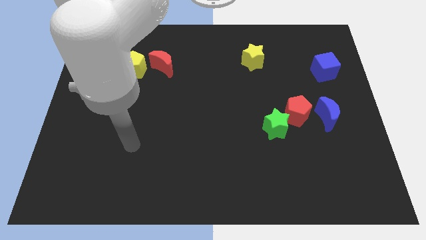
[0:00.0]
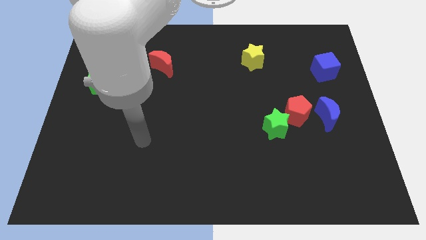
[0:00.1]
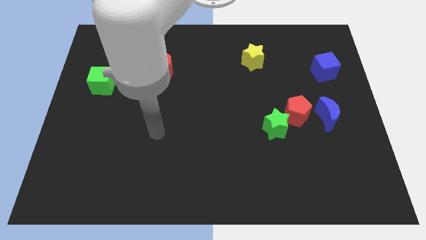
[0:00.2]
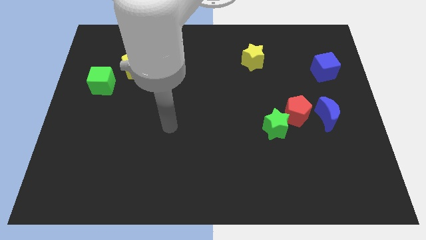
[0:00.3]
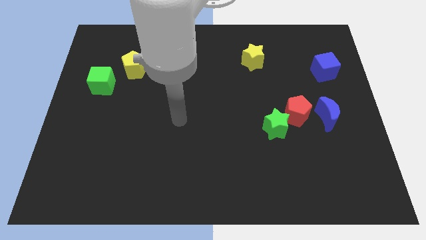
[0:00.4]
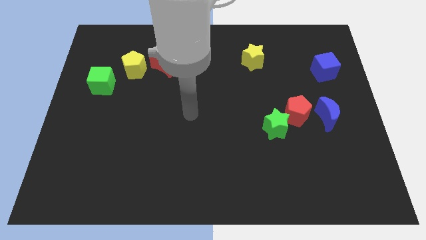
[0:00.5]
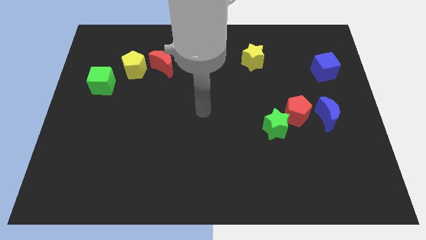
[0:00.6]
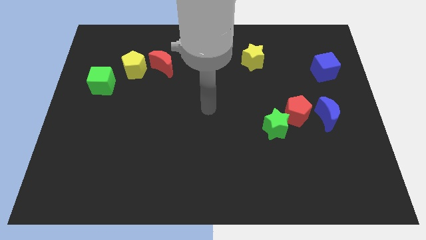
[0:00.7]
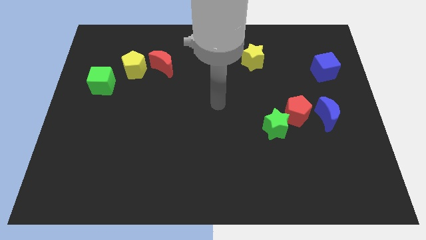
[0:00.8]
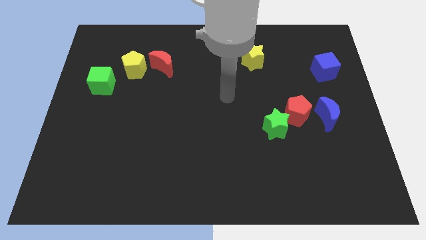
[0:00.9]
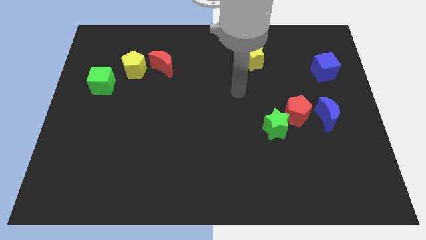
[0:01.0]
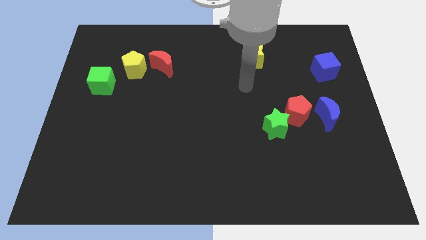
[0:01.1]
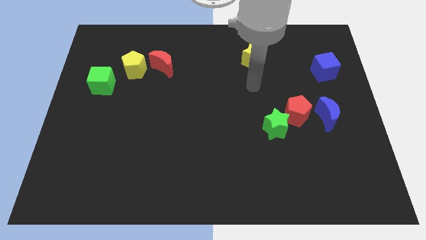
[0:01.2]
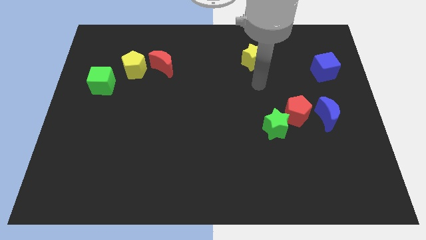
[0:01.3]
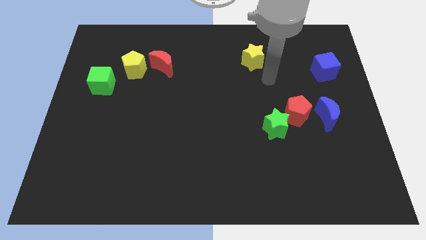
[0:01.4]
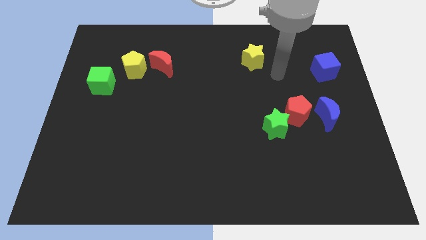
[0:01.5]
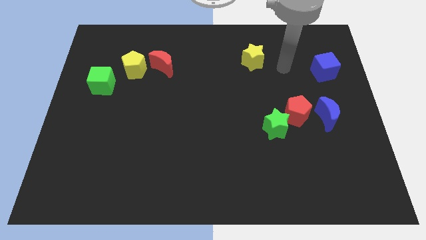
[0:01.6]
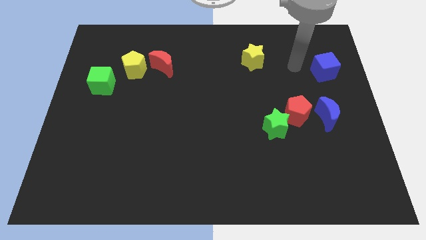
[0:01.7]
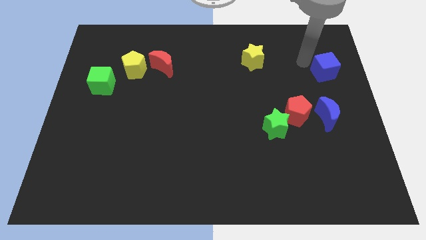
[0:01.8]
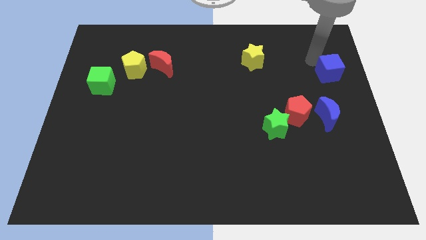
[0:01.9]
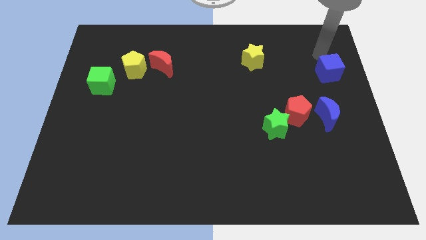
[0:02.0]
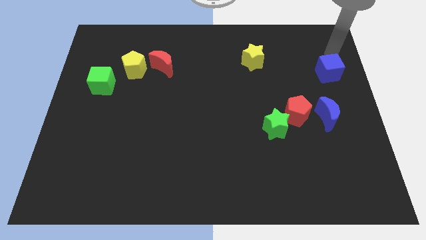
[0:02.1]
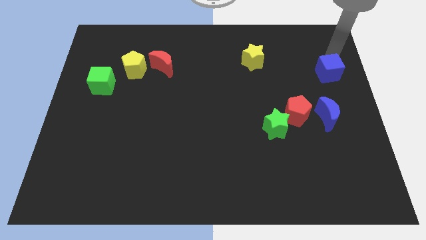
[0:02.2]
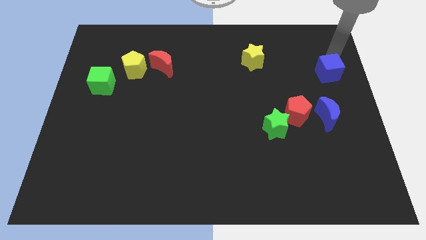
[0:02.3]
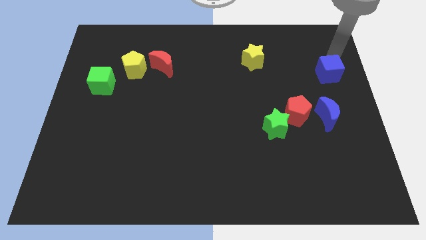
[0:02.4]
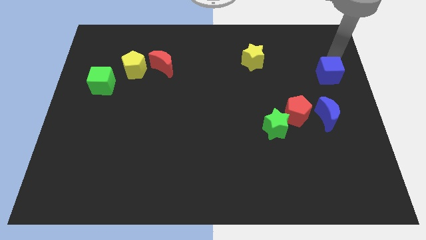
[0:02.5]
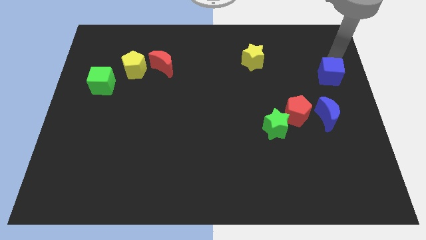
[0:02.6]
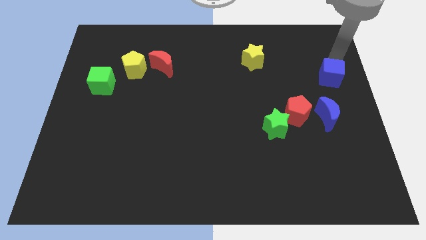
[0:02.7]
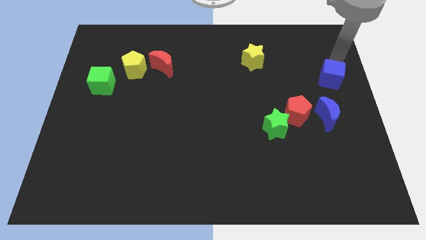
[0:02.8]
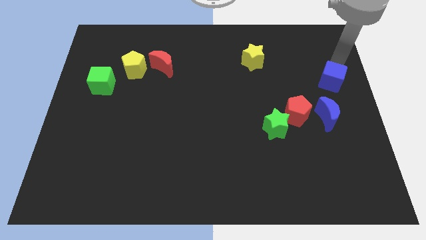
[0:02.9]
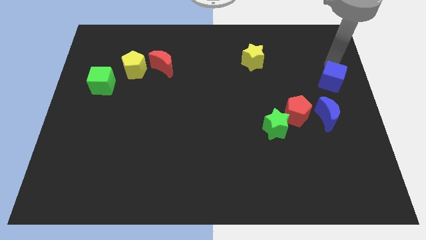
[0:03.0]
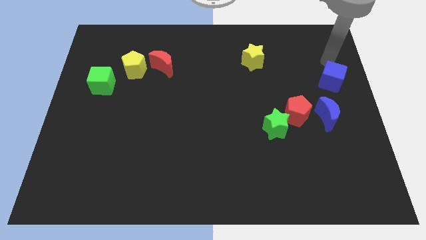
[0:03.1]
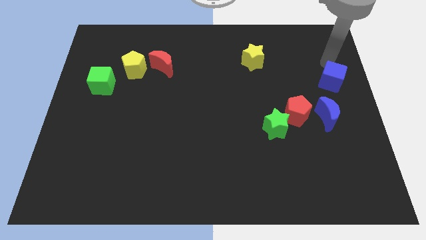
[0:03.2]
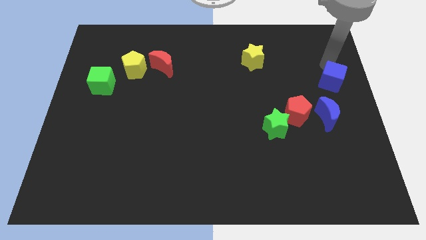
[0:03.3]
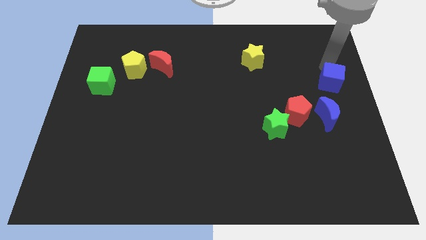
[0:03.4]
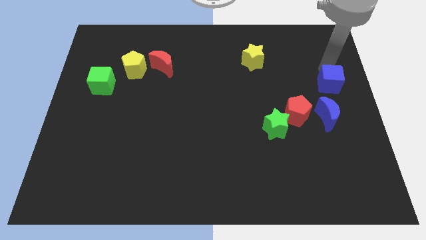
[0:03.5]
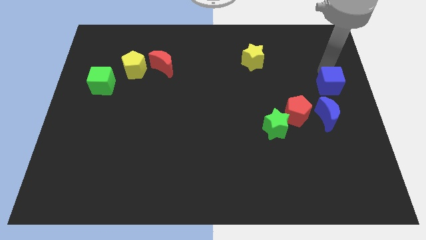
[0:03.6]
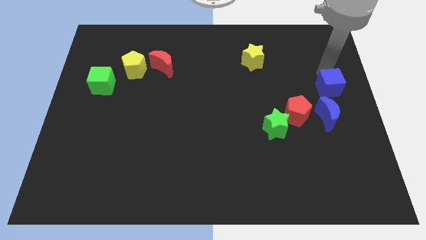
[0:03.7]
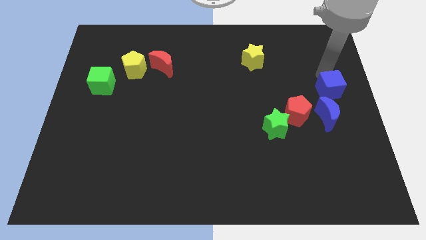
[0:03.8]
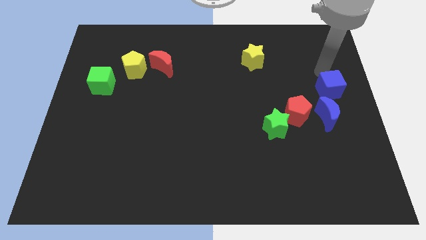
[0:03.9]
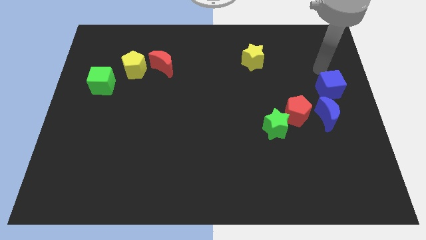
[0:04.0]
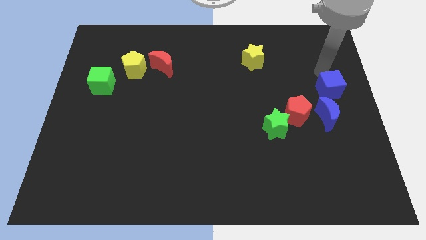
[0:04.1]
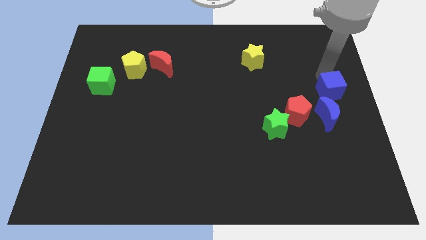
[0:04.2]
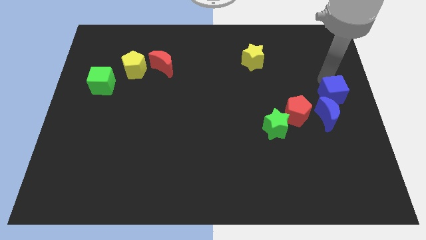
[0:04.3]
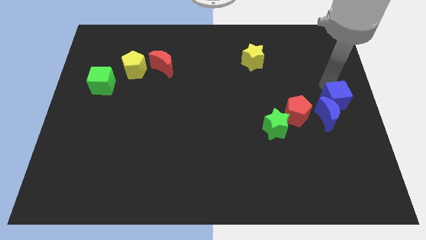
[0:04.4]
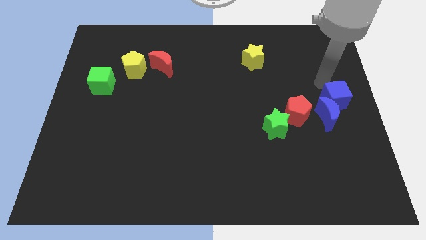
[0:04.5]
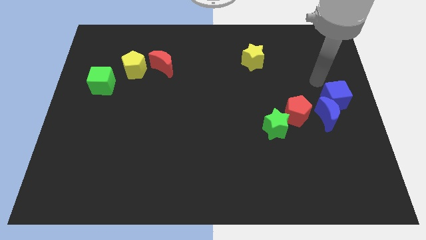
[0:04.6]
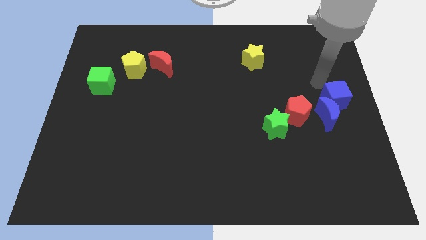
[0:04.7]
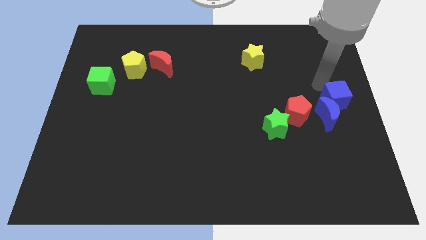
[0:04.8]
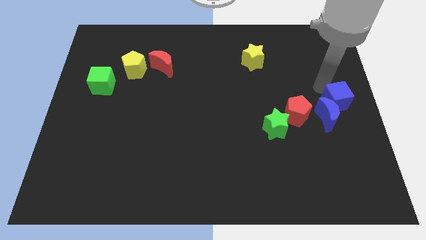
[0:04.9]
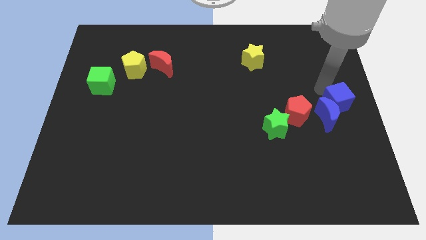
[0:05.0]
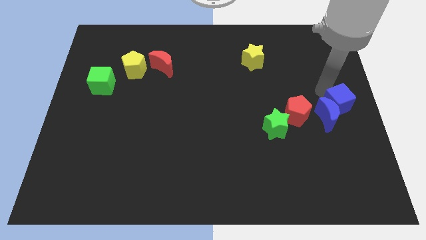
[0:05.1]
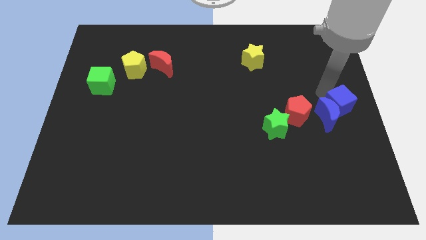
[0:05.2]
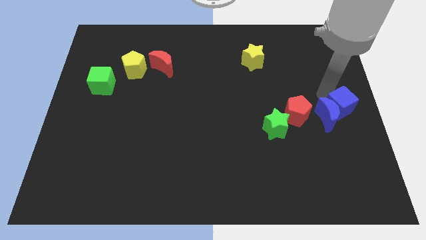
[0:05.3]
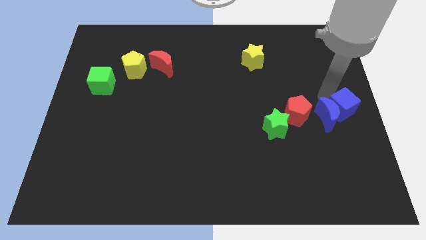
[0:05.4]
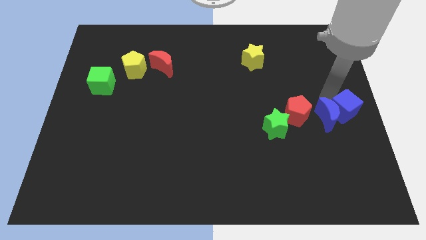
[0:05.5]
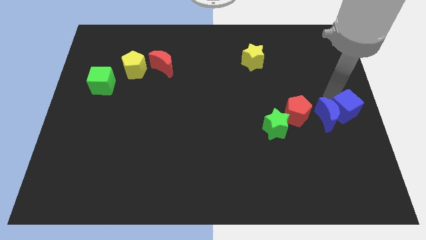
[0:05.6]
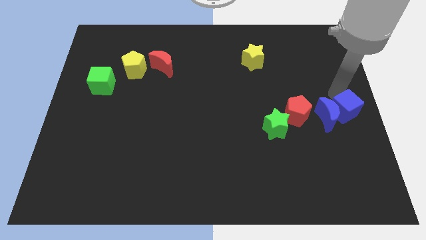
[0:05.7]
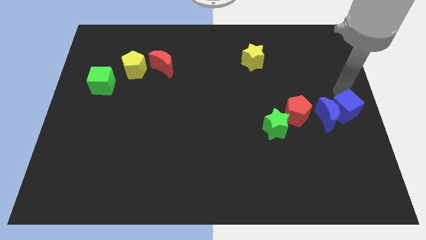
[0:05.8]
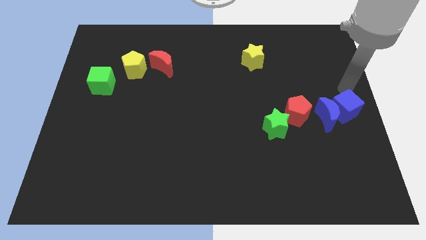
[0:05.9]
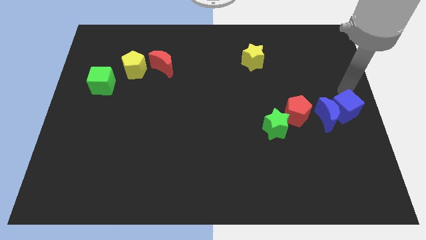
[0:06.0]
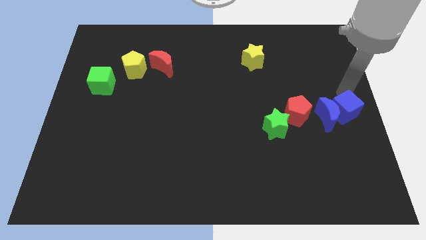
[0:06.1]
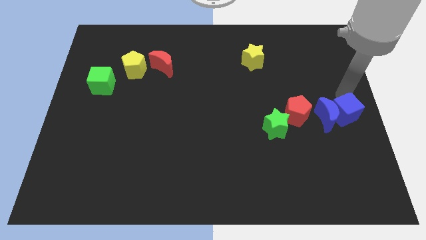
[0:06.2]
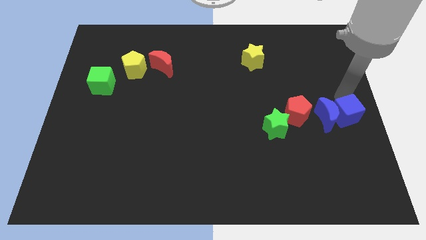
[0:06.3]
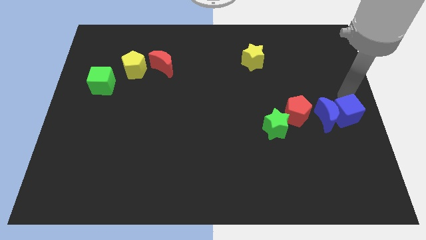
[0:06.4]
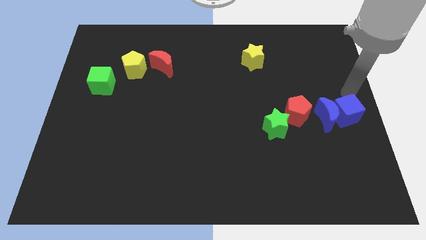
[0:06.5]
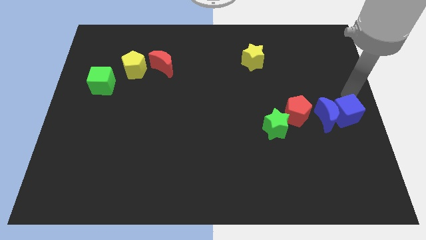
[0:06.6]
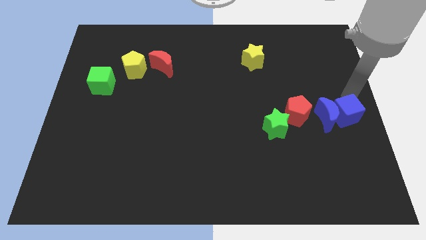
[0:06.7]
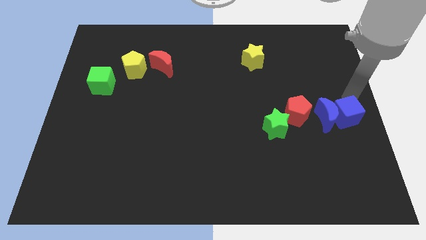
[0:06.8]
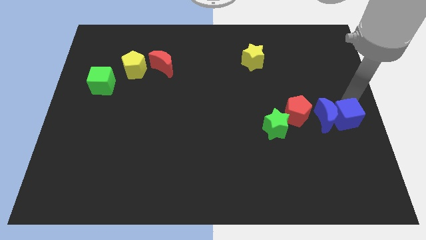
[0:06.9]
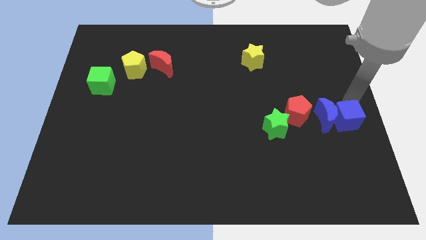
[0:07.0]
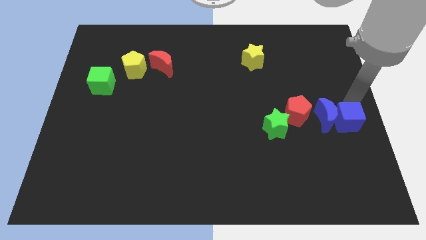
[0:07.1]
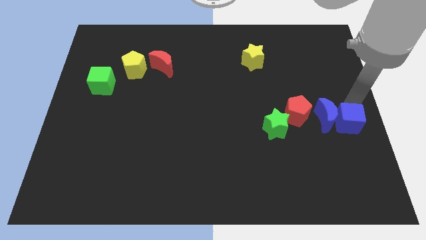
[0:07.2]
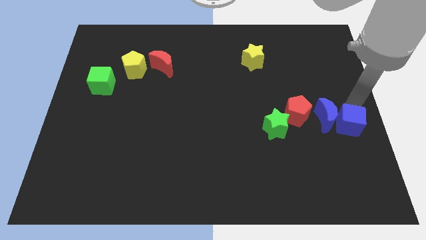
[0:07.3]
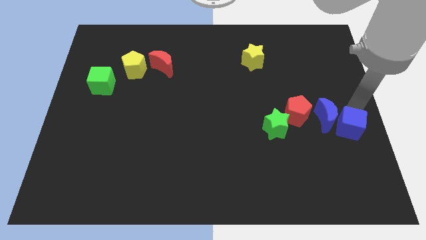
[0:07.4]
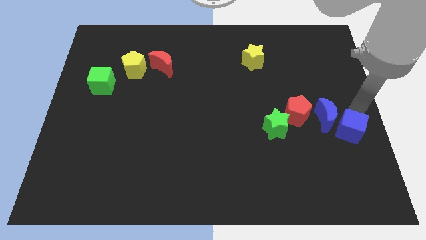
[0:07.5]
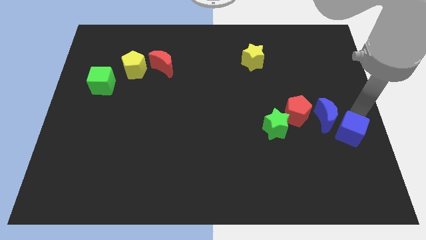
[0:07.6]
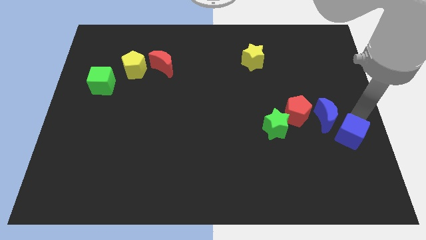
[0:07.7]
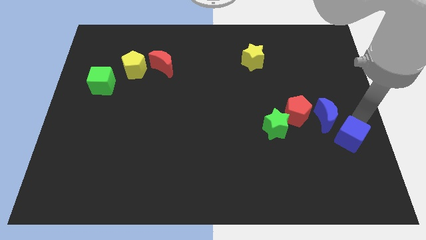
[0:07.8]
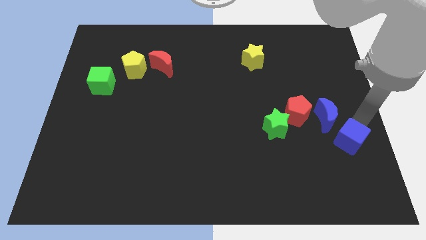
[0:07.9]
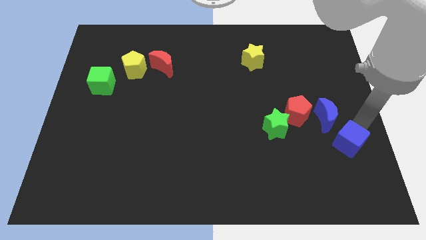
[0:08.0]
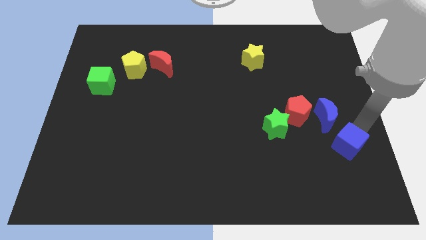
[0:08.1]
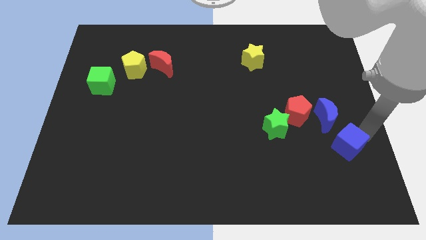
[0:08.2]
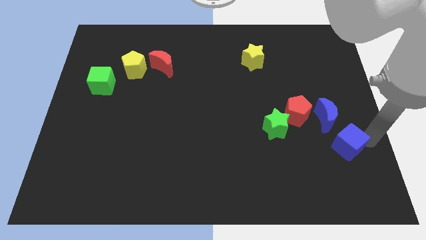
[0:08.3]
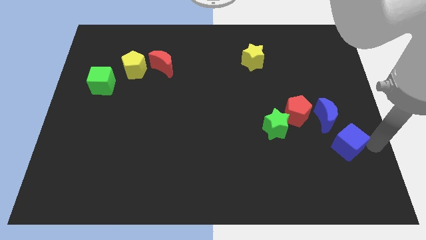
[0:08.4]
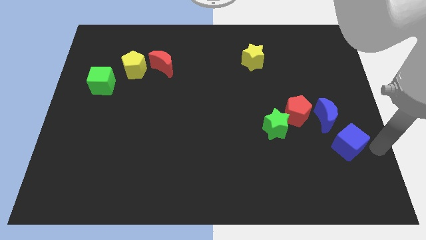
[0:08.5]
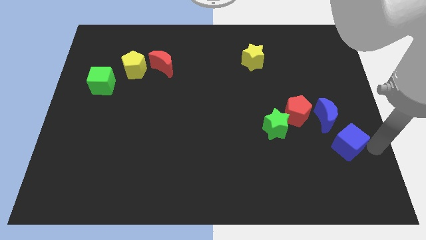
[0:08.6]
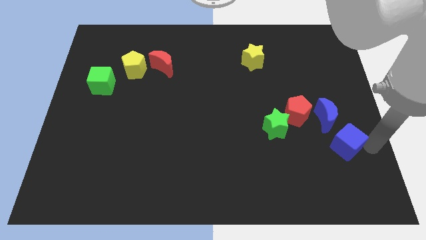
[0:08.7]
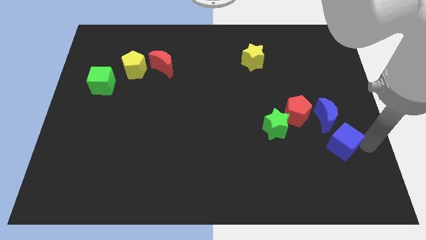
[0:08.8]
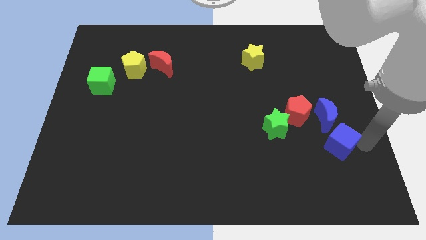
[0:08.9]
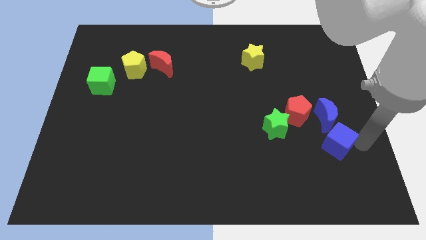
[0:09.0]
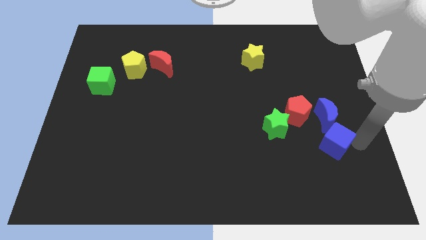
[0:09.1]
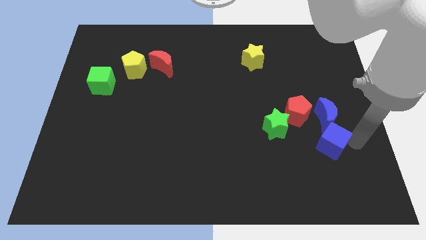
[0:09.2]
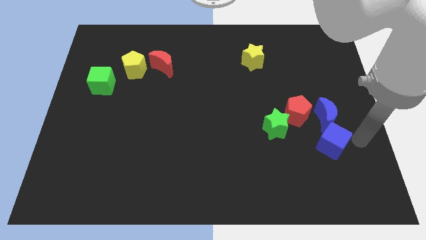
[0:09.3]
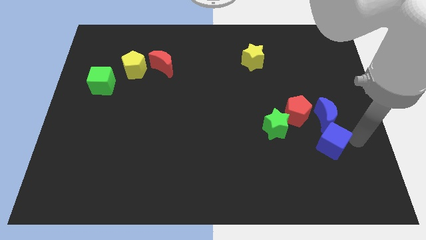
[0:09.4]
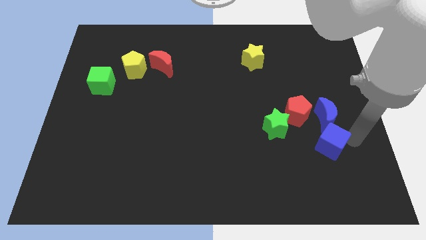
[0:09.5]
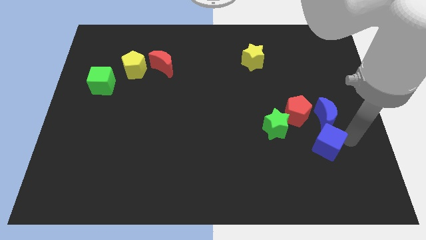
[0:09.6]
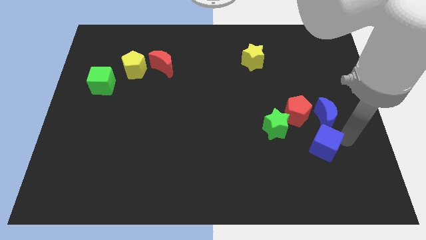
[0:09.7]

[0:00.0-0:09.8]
slide the blue cube to the bottom right of the green star
